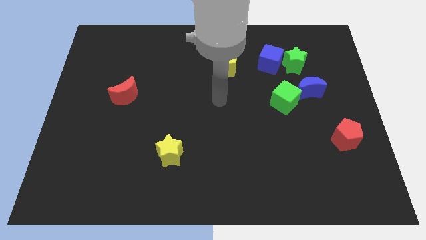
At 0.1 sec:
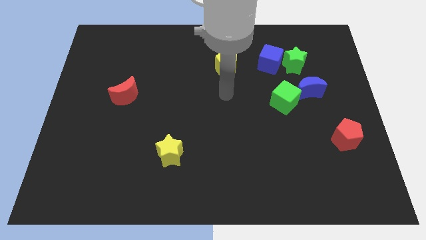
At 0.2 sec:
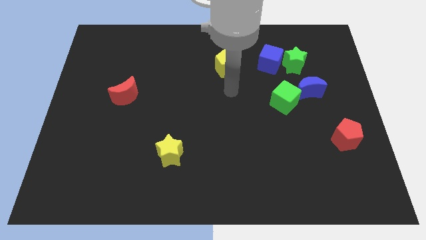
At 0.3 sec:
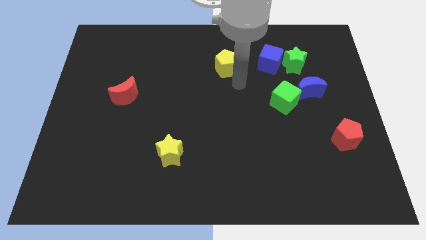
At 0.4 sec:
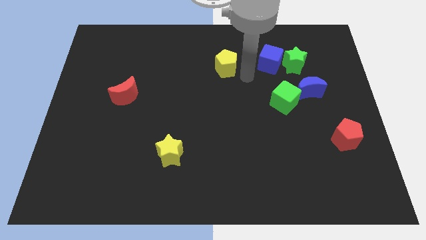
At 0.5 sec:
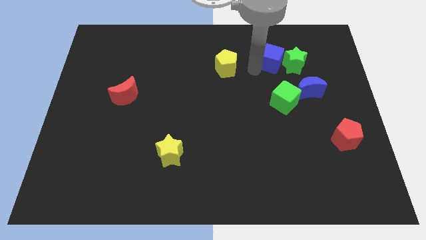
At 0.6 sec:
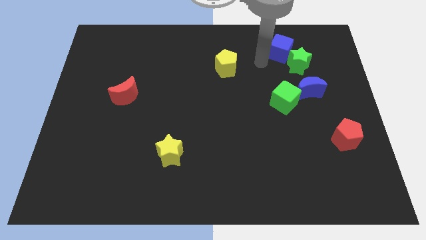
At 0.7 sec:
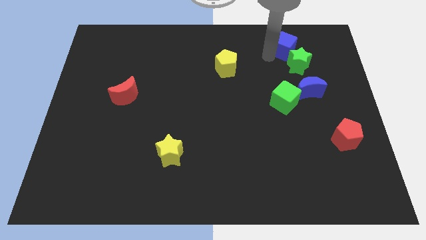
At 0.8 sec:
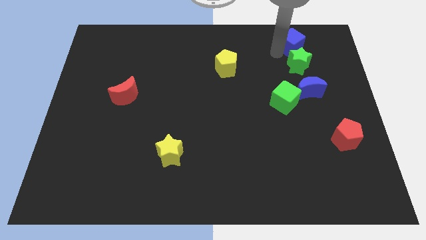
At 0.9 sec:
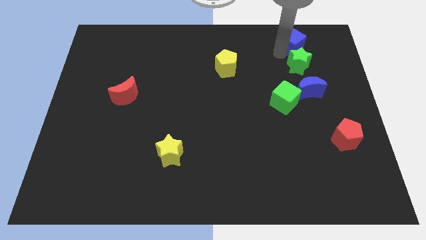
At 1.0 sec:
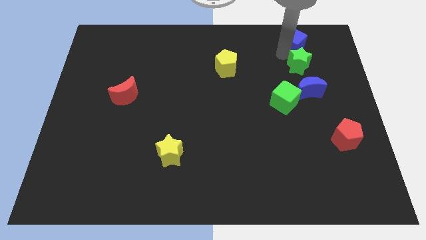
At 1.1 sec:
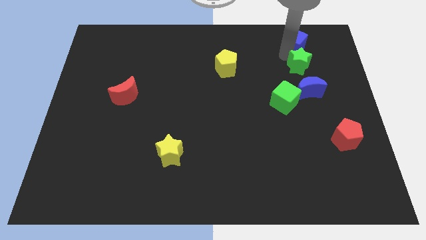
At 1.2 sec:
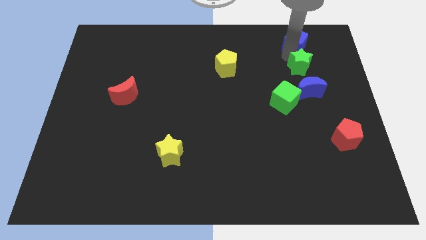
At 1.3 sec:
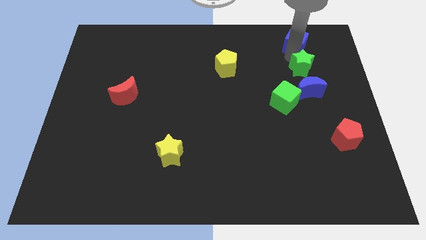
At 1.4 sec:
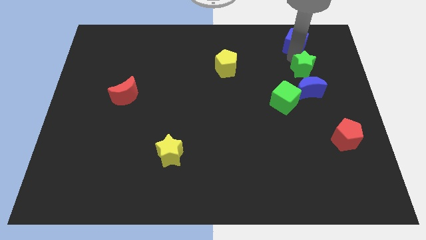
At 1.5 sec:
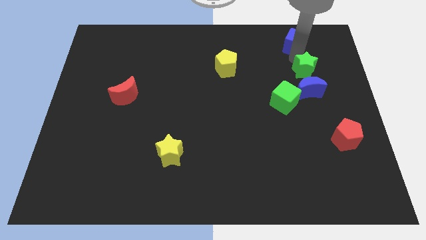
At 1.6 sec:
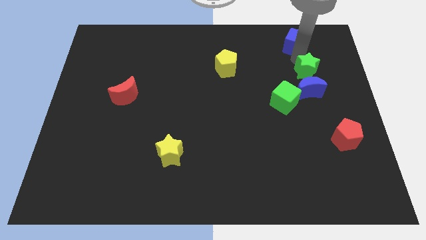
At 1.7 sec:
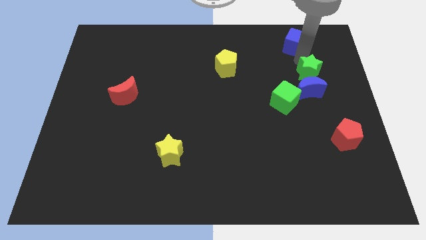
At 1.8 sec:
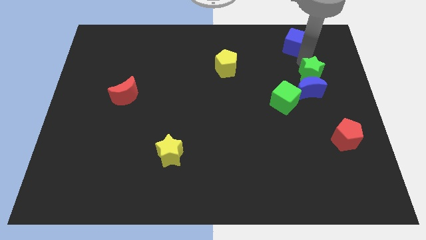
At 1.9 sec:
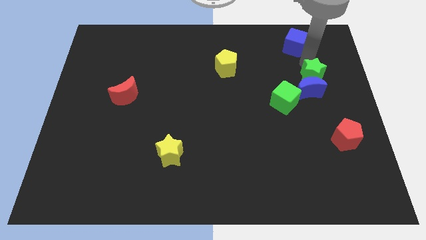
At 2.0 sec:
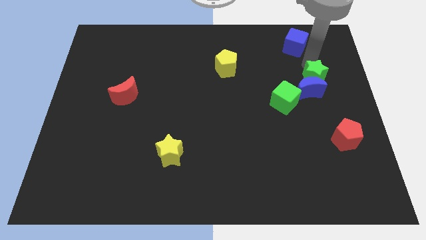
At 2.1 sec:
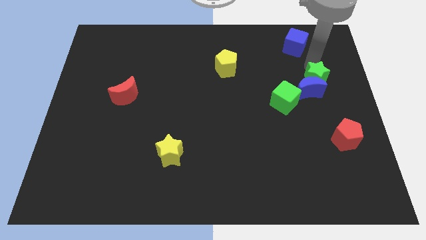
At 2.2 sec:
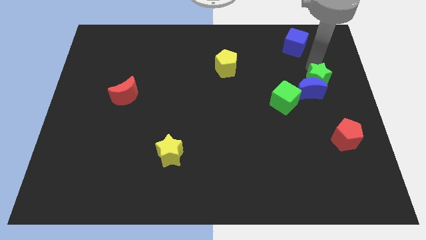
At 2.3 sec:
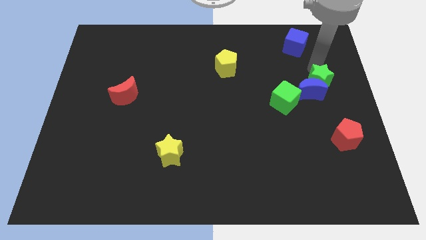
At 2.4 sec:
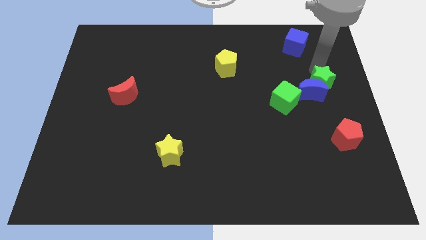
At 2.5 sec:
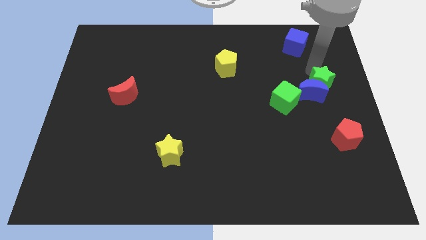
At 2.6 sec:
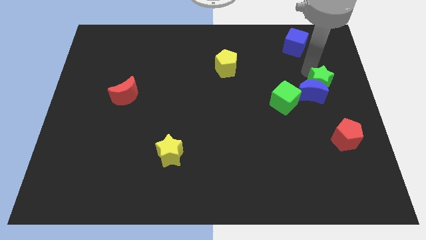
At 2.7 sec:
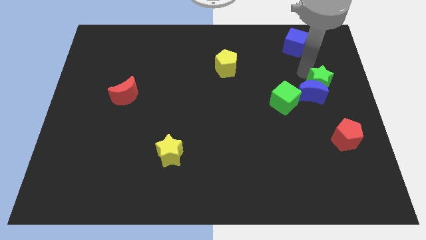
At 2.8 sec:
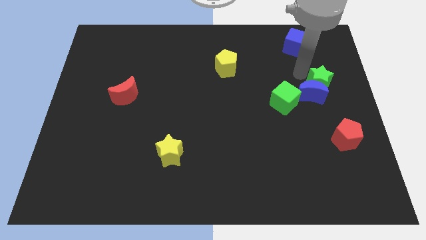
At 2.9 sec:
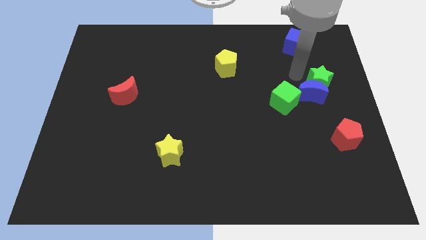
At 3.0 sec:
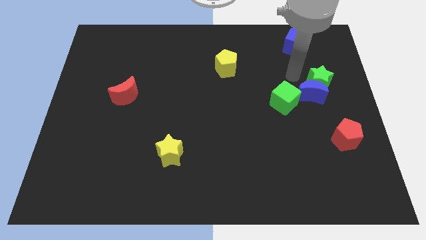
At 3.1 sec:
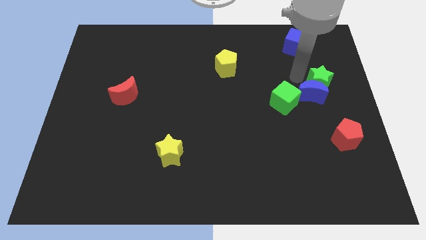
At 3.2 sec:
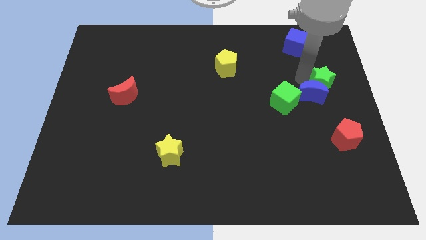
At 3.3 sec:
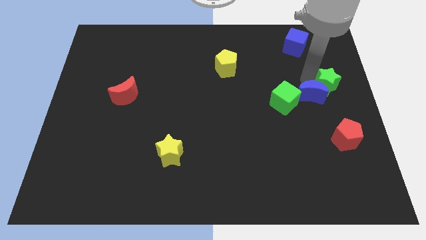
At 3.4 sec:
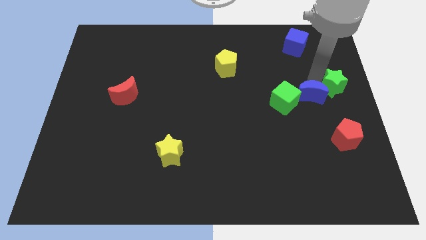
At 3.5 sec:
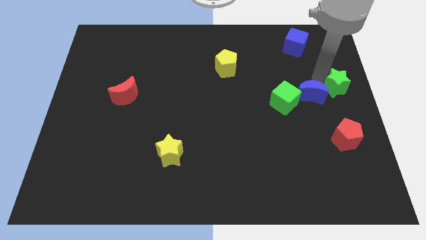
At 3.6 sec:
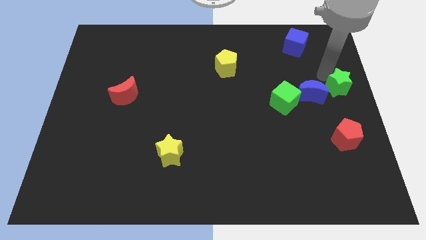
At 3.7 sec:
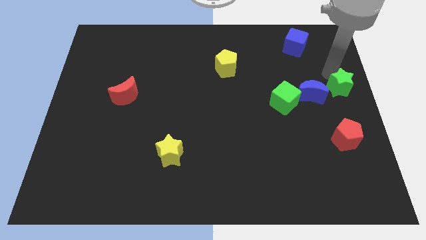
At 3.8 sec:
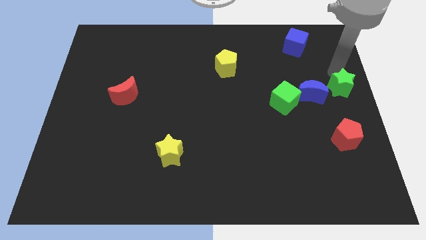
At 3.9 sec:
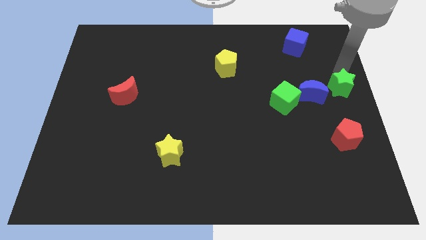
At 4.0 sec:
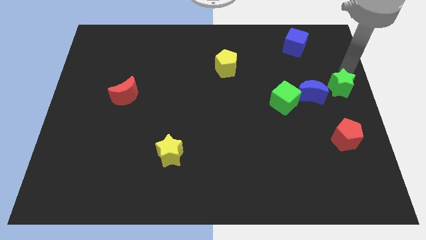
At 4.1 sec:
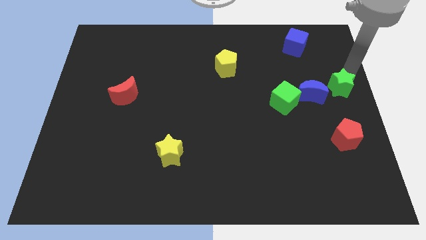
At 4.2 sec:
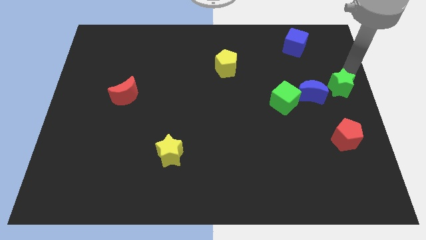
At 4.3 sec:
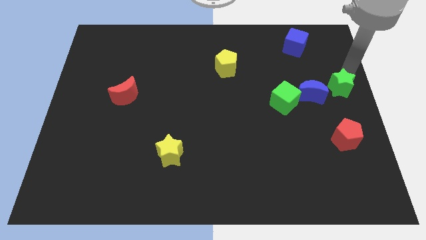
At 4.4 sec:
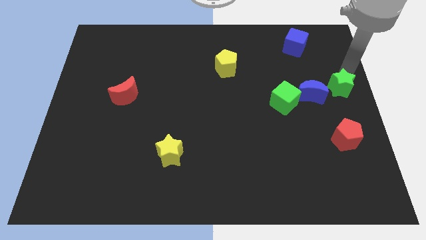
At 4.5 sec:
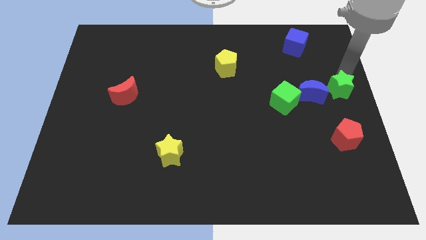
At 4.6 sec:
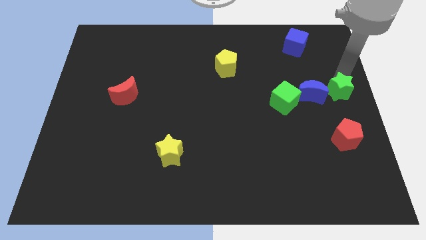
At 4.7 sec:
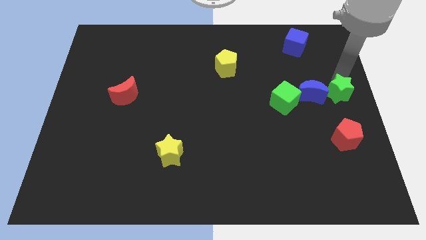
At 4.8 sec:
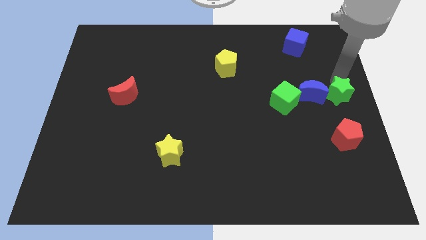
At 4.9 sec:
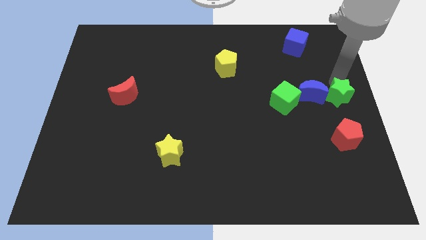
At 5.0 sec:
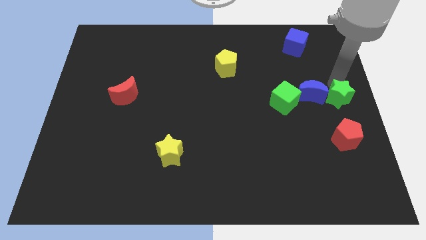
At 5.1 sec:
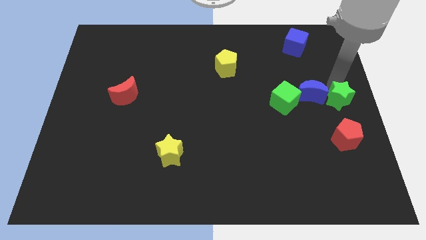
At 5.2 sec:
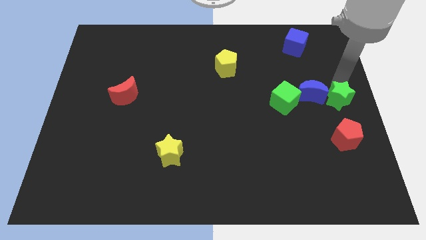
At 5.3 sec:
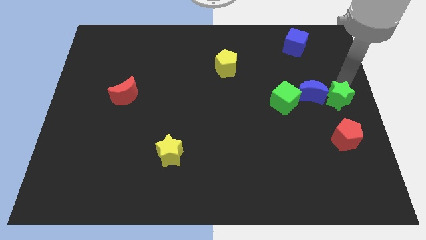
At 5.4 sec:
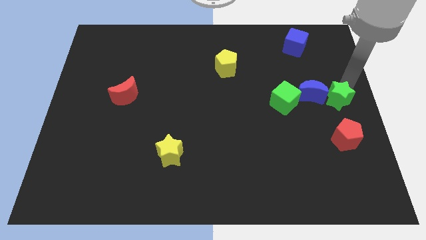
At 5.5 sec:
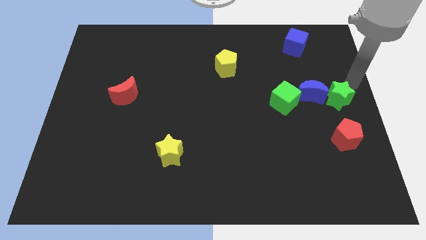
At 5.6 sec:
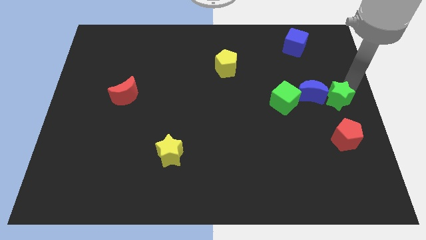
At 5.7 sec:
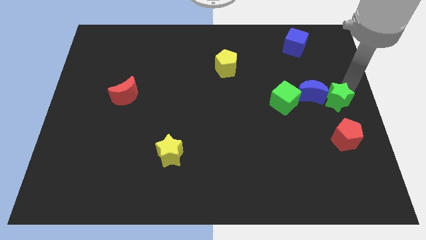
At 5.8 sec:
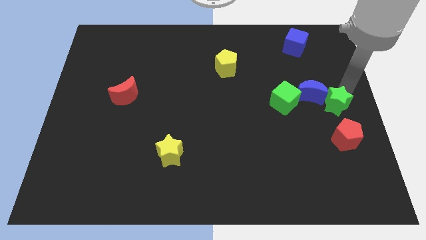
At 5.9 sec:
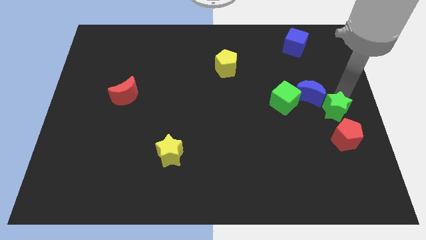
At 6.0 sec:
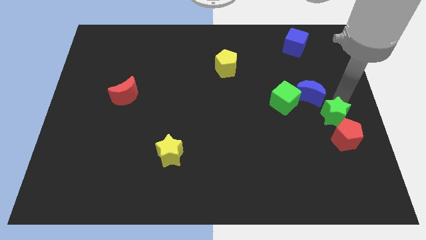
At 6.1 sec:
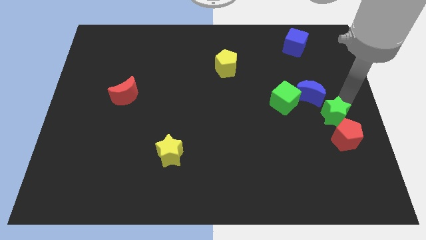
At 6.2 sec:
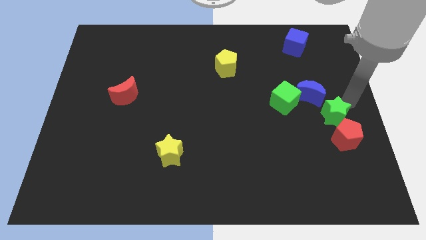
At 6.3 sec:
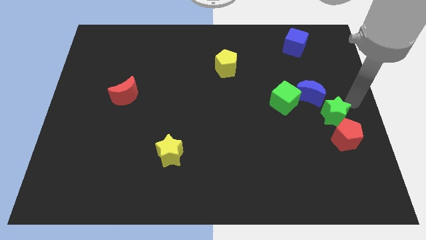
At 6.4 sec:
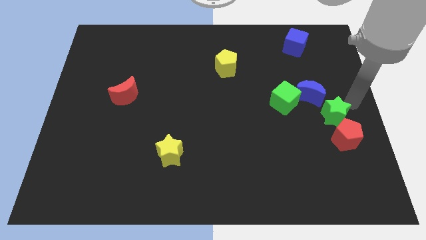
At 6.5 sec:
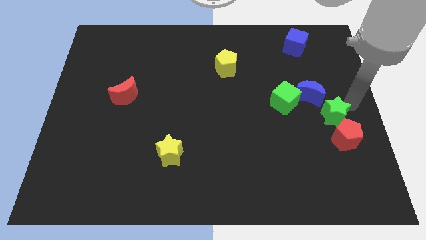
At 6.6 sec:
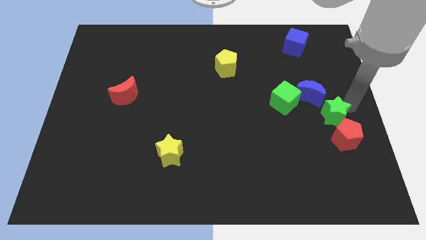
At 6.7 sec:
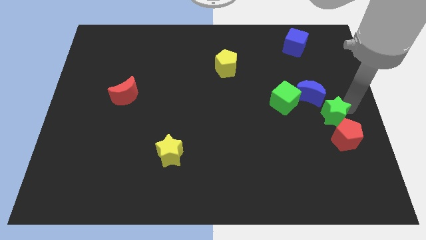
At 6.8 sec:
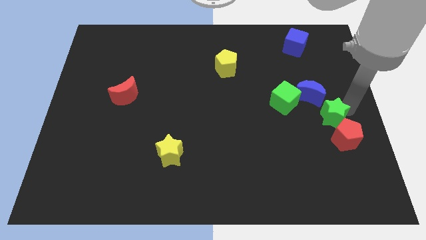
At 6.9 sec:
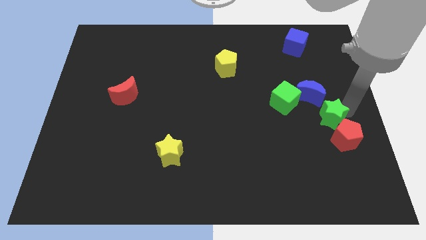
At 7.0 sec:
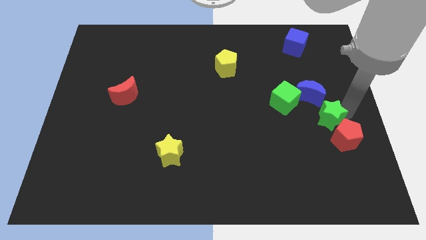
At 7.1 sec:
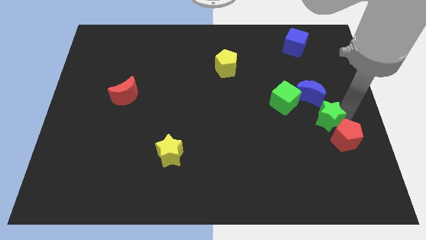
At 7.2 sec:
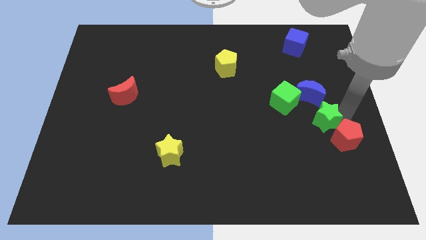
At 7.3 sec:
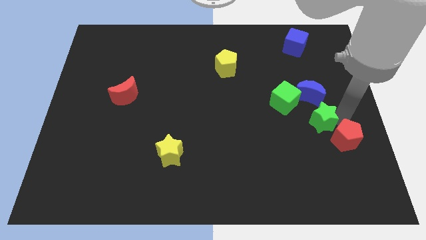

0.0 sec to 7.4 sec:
push the green star to the left of the red pentagon
